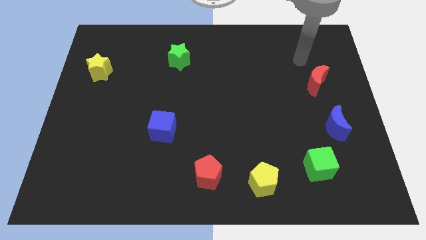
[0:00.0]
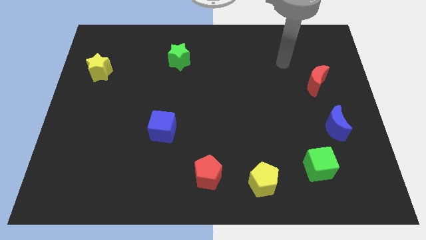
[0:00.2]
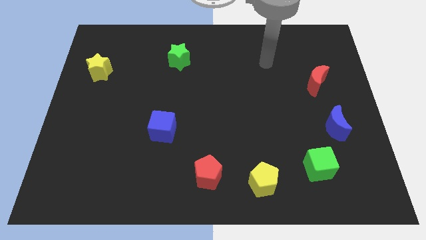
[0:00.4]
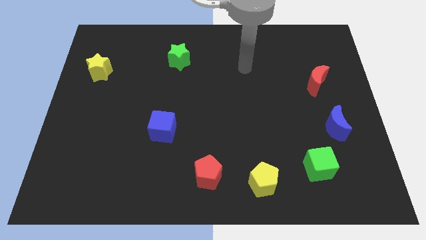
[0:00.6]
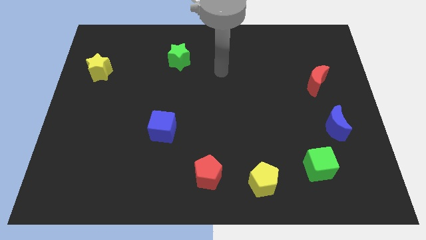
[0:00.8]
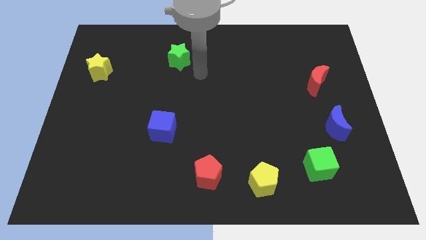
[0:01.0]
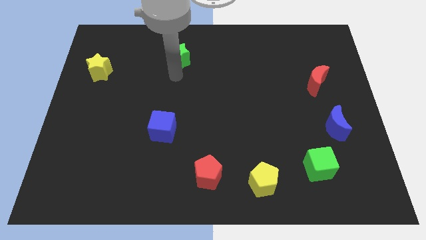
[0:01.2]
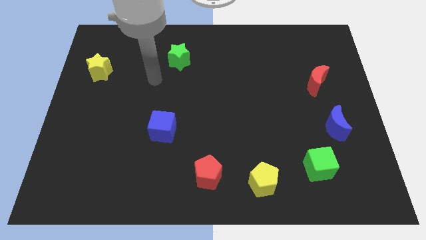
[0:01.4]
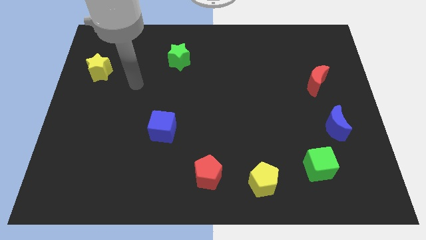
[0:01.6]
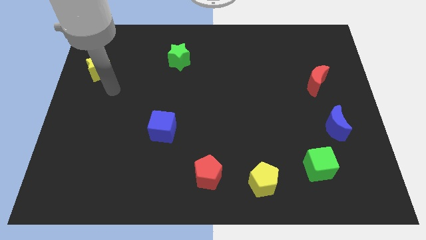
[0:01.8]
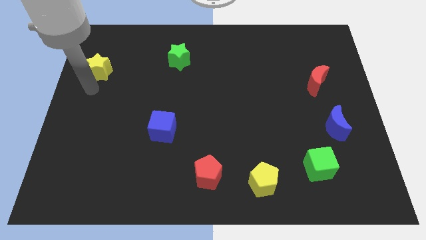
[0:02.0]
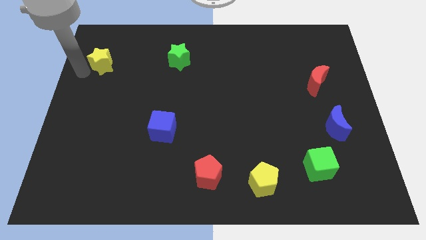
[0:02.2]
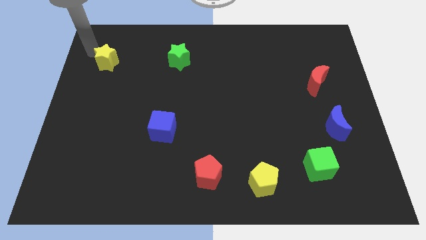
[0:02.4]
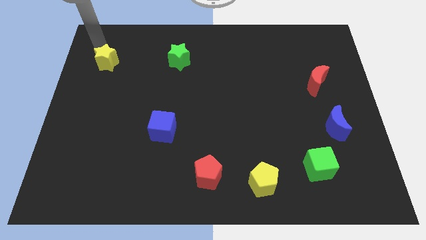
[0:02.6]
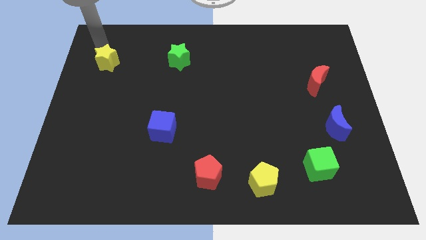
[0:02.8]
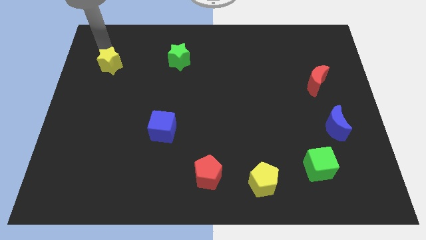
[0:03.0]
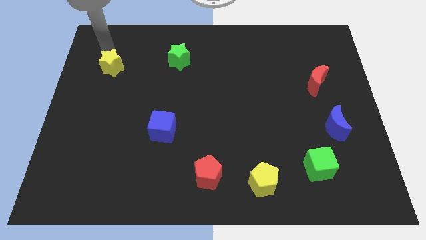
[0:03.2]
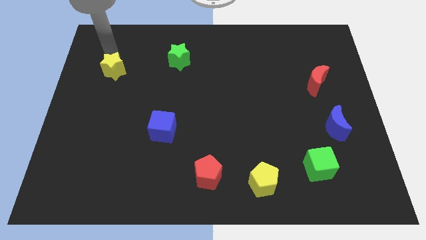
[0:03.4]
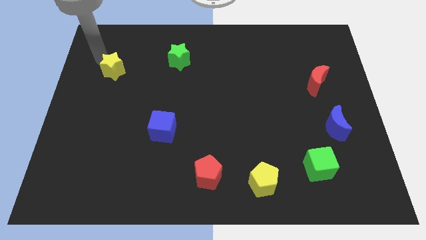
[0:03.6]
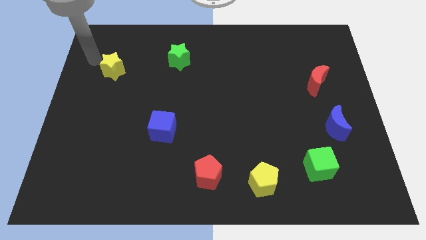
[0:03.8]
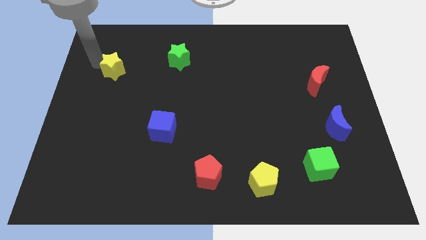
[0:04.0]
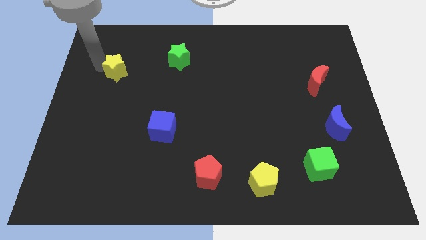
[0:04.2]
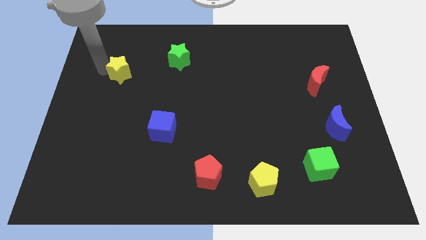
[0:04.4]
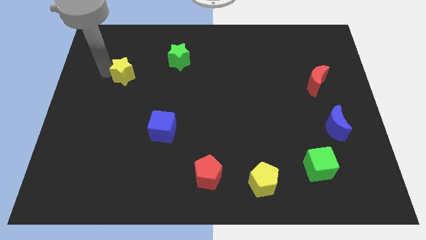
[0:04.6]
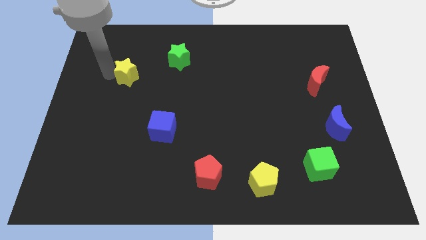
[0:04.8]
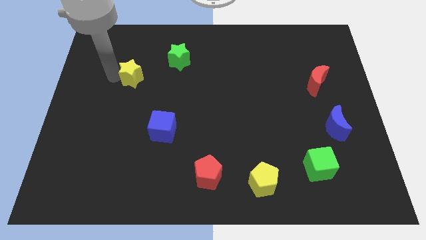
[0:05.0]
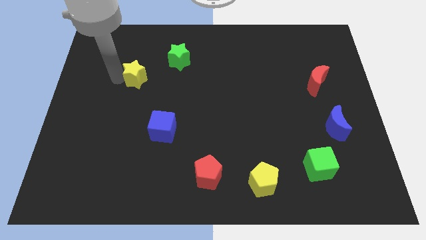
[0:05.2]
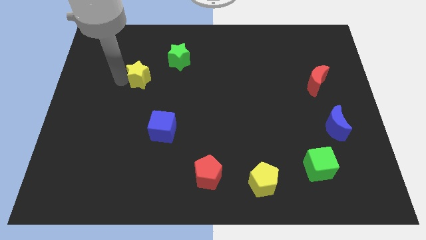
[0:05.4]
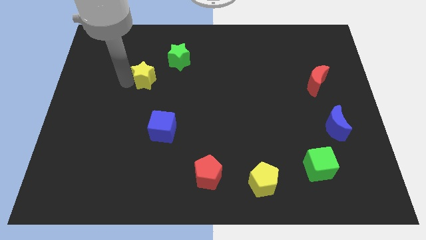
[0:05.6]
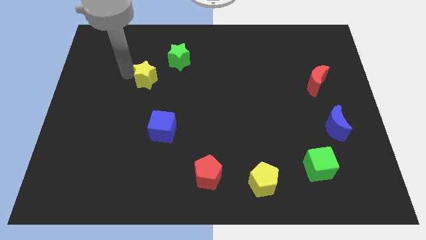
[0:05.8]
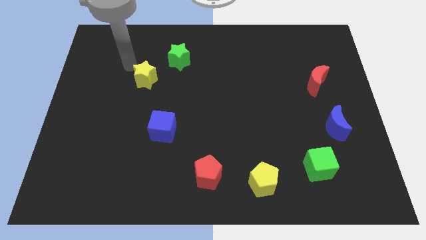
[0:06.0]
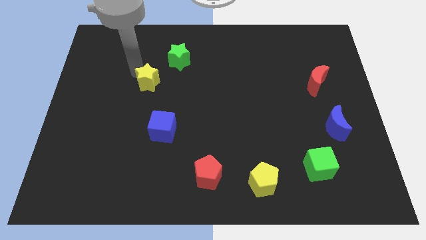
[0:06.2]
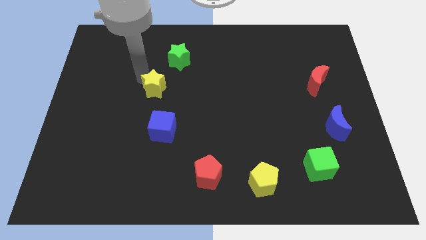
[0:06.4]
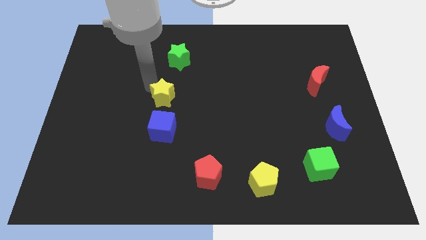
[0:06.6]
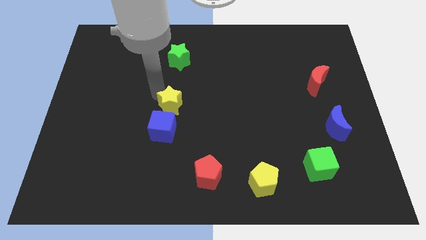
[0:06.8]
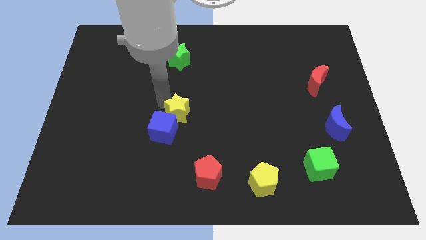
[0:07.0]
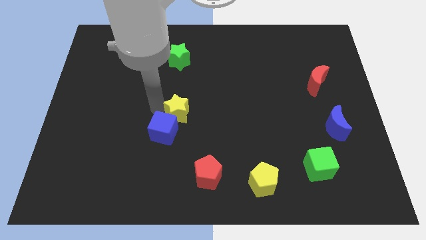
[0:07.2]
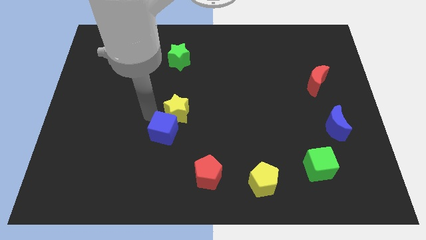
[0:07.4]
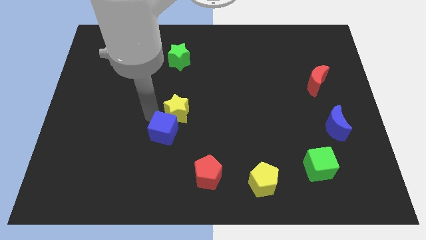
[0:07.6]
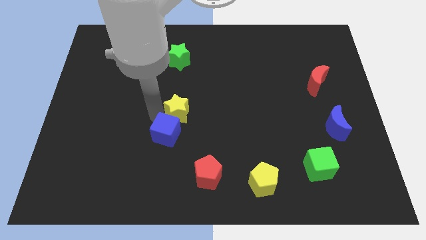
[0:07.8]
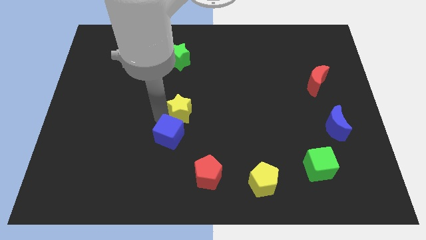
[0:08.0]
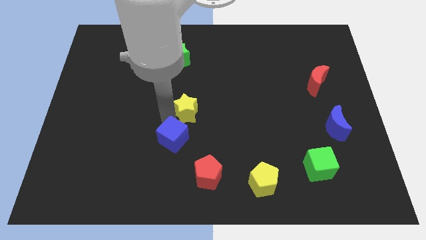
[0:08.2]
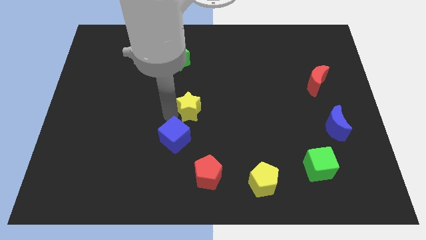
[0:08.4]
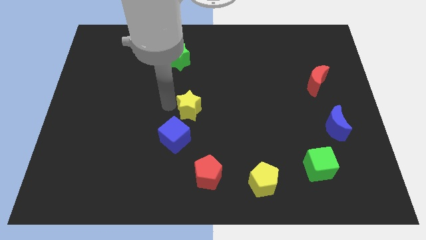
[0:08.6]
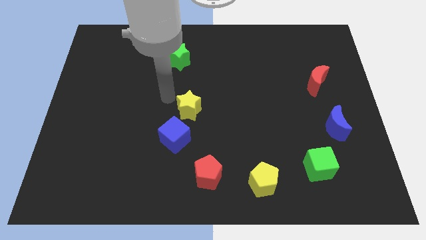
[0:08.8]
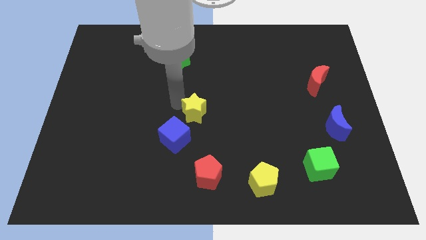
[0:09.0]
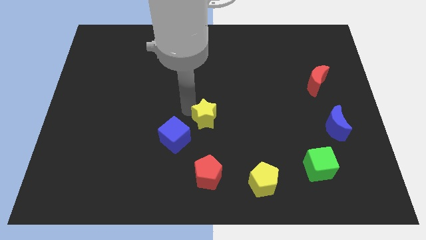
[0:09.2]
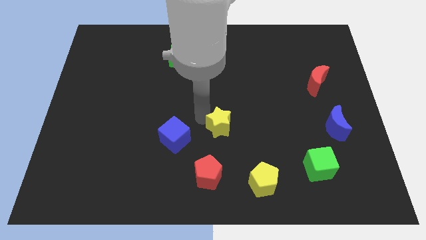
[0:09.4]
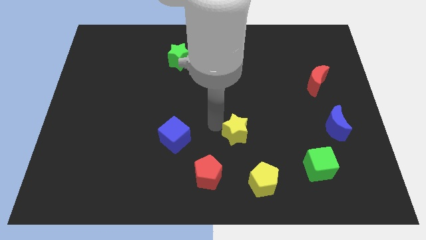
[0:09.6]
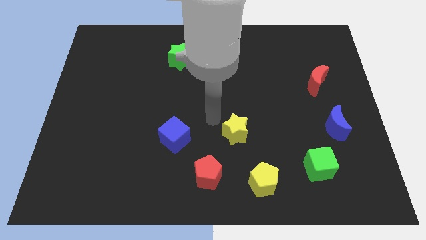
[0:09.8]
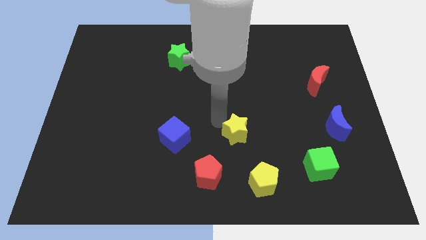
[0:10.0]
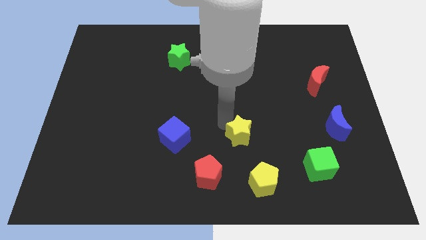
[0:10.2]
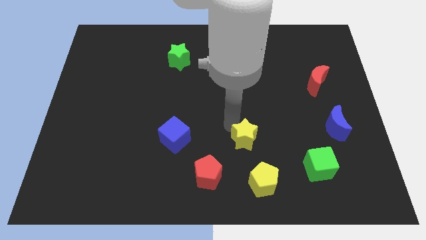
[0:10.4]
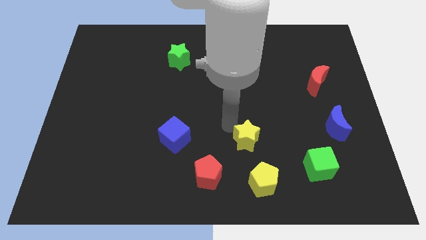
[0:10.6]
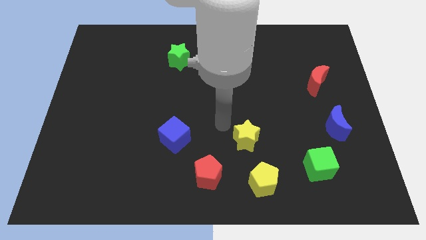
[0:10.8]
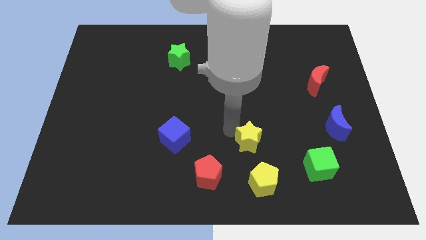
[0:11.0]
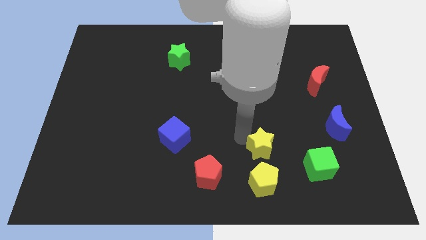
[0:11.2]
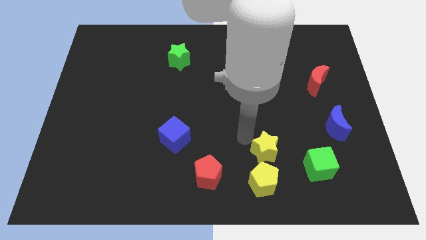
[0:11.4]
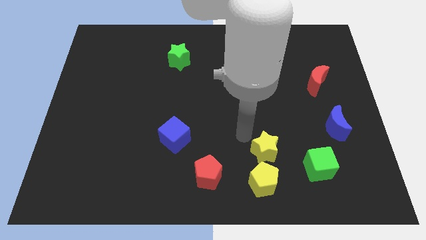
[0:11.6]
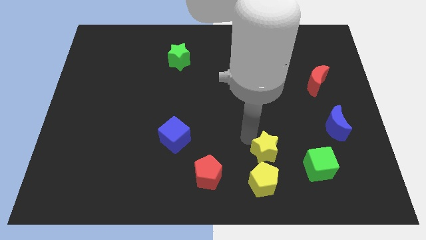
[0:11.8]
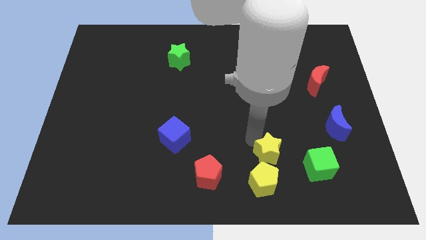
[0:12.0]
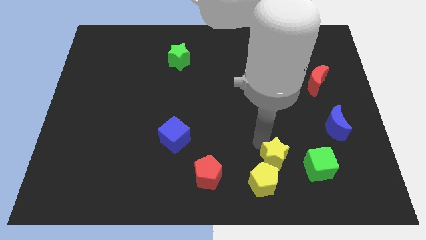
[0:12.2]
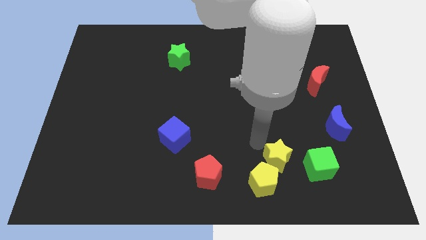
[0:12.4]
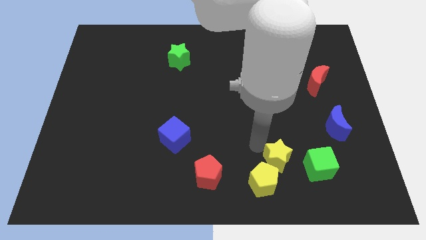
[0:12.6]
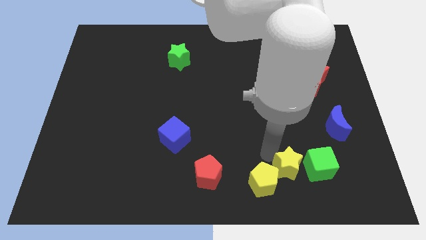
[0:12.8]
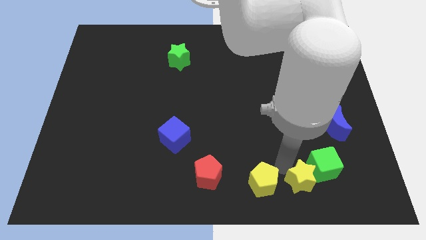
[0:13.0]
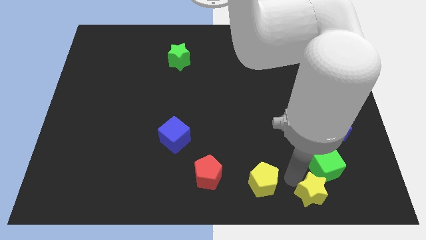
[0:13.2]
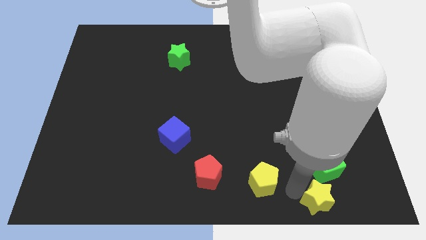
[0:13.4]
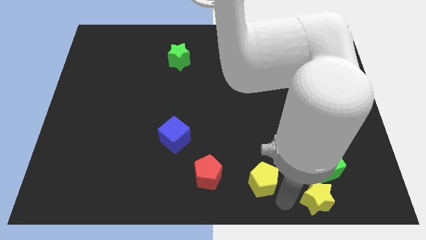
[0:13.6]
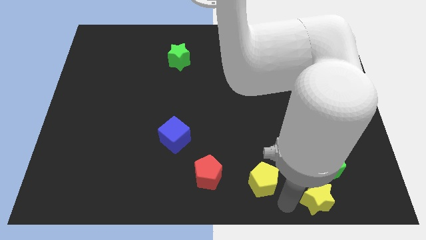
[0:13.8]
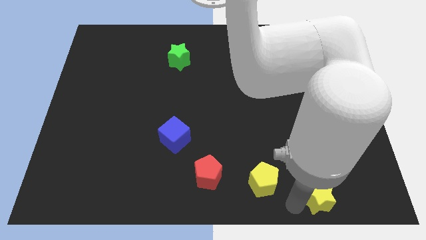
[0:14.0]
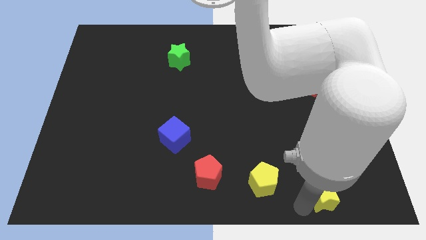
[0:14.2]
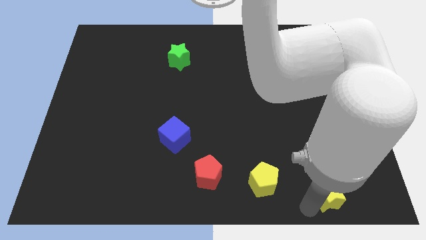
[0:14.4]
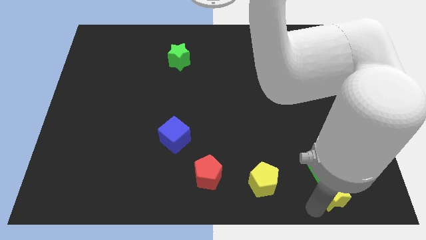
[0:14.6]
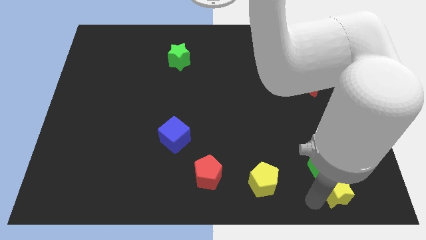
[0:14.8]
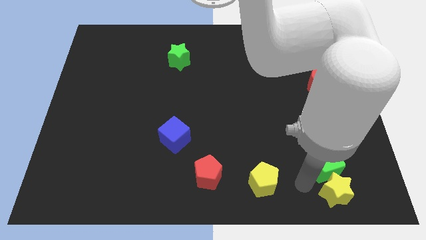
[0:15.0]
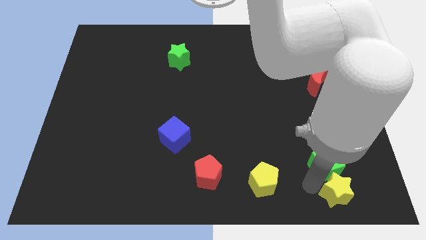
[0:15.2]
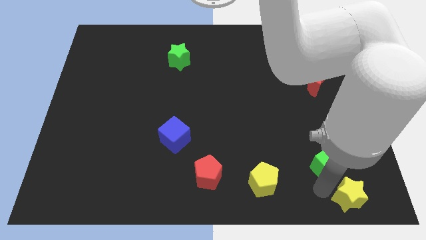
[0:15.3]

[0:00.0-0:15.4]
move the yellow star to the lower right corner
